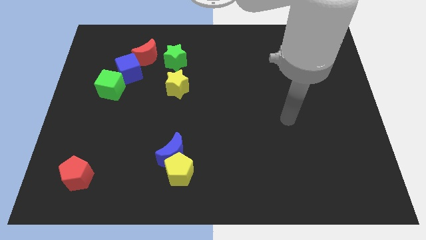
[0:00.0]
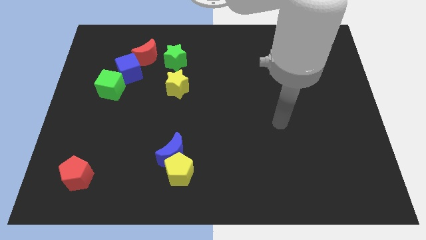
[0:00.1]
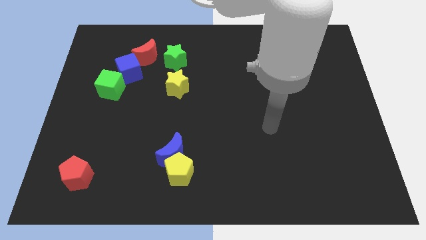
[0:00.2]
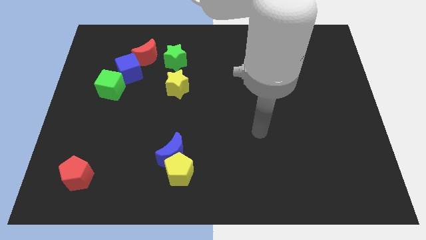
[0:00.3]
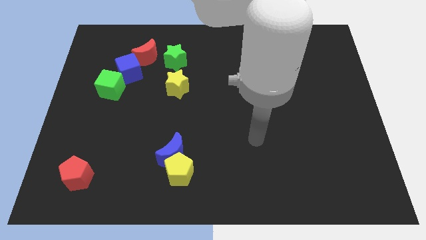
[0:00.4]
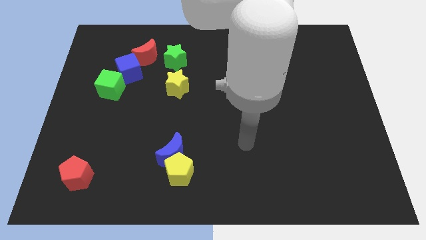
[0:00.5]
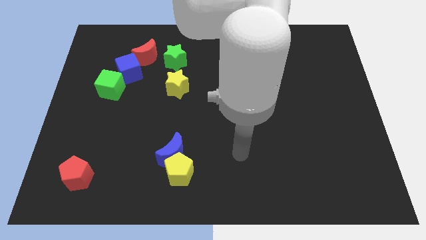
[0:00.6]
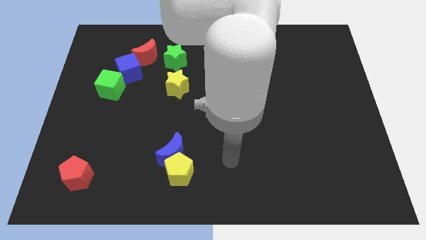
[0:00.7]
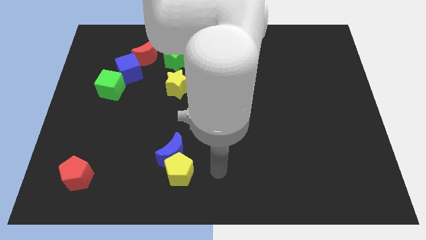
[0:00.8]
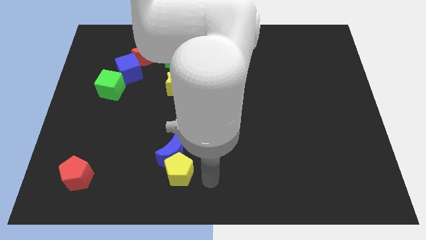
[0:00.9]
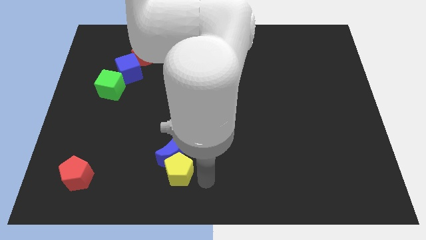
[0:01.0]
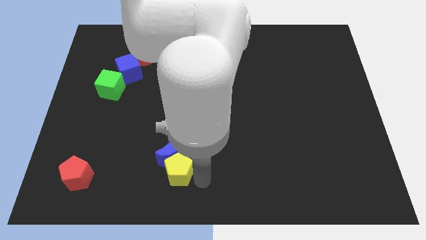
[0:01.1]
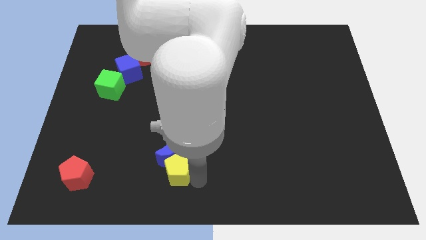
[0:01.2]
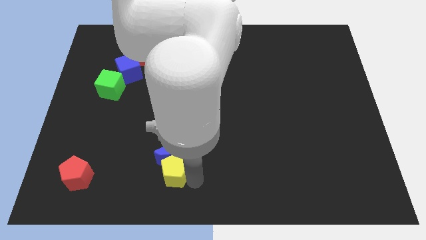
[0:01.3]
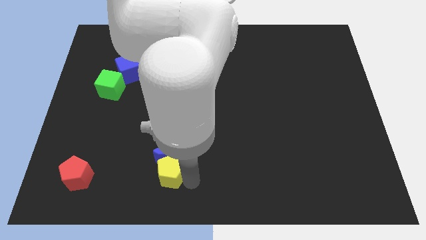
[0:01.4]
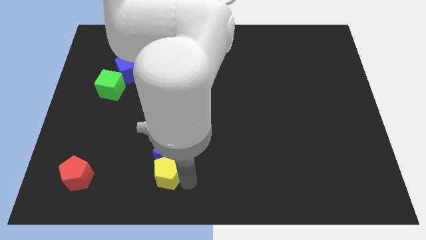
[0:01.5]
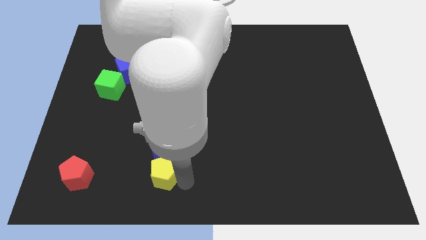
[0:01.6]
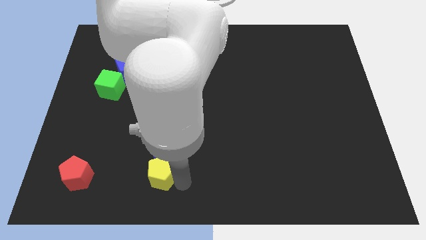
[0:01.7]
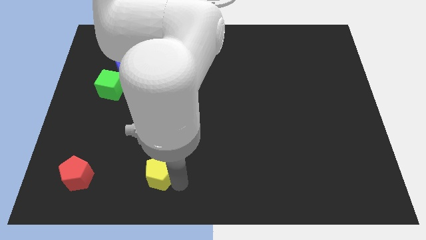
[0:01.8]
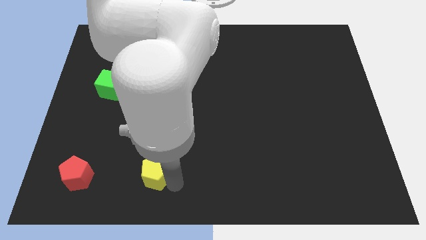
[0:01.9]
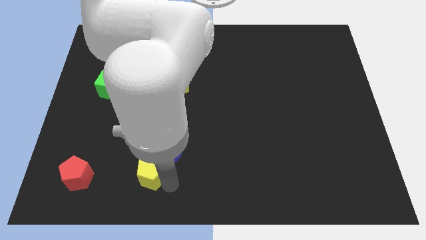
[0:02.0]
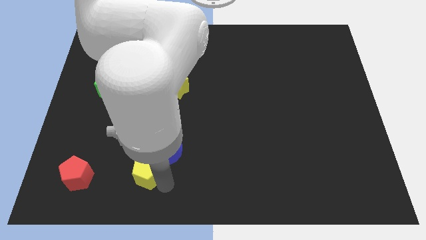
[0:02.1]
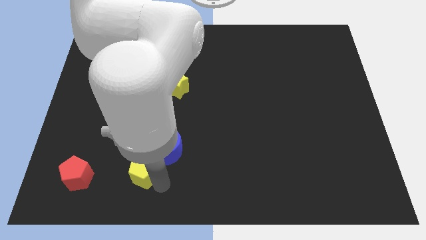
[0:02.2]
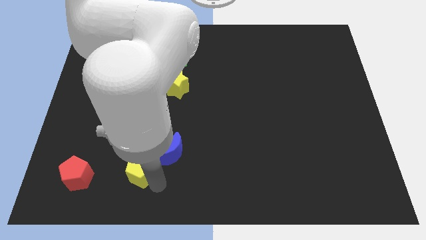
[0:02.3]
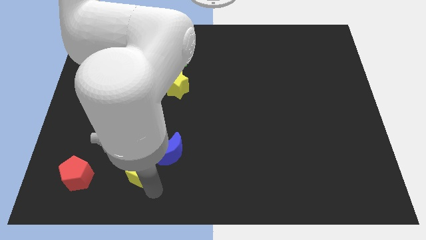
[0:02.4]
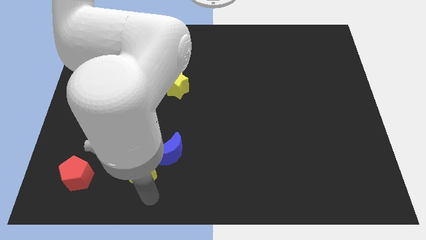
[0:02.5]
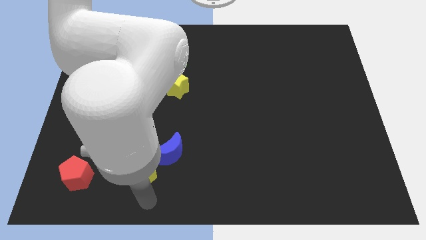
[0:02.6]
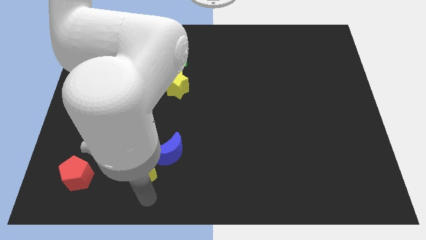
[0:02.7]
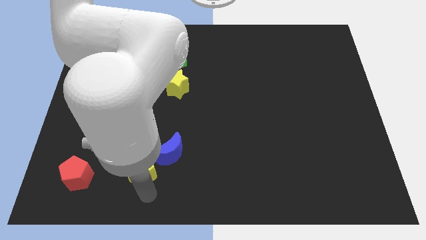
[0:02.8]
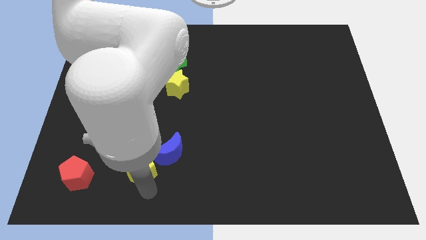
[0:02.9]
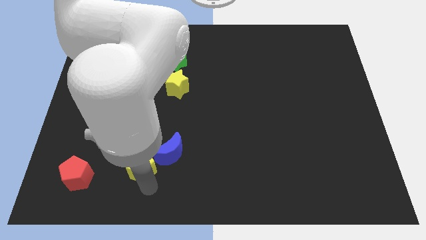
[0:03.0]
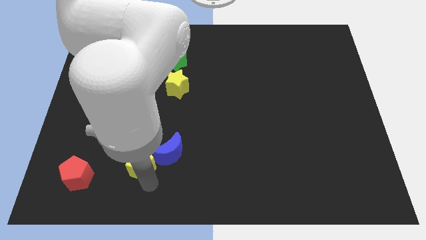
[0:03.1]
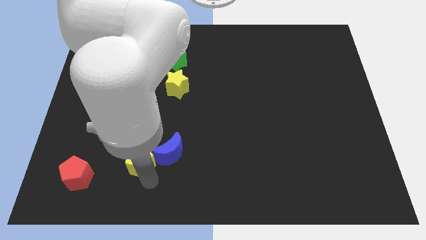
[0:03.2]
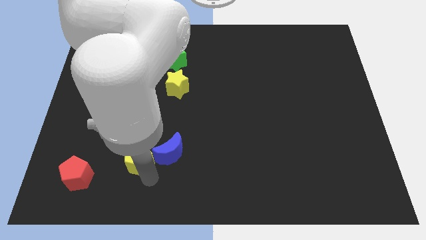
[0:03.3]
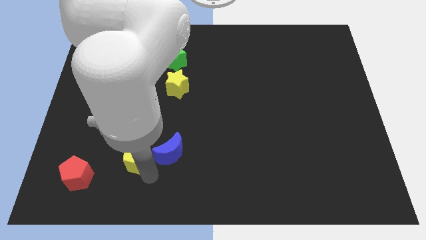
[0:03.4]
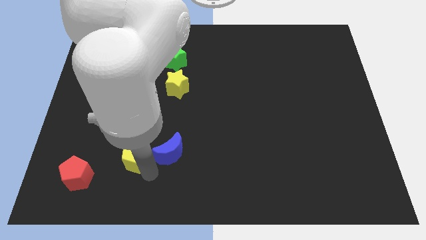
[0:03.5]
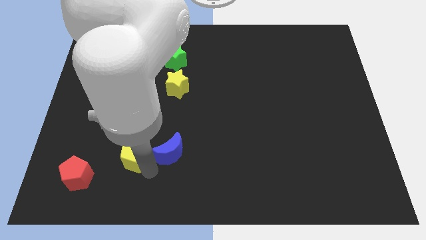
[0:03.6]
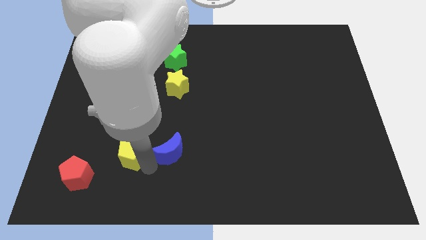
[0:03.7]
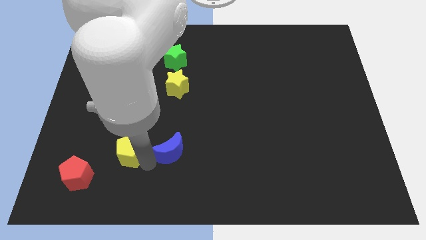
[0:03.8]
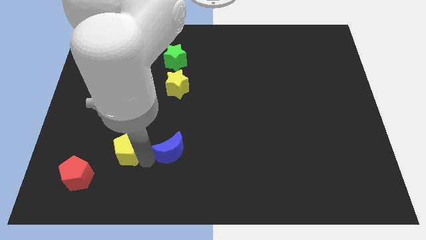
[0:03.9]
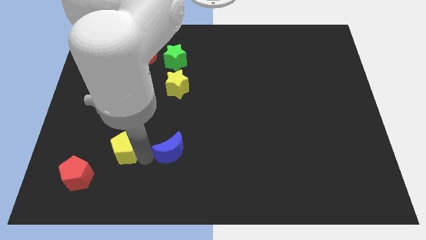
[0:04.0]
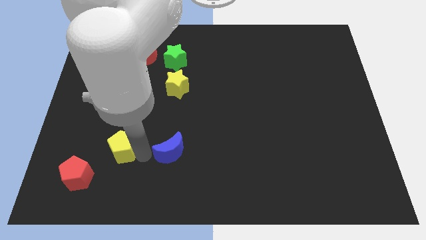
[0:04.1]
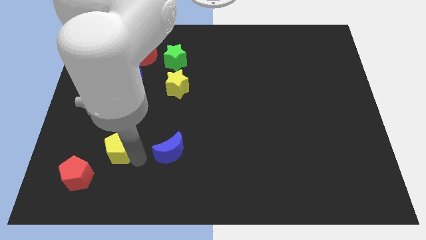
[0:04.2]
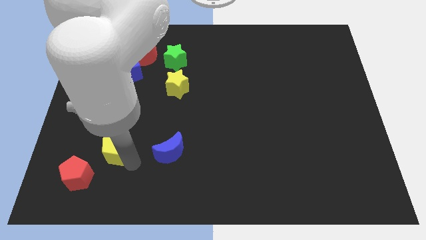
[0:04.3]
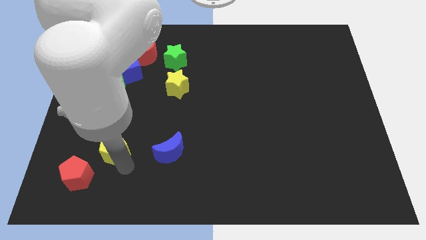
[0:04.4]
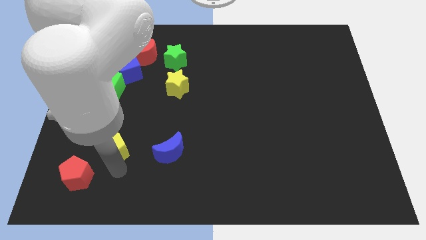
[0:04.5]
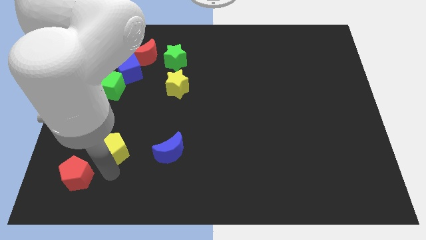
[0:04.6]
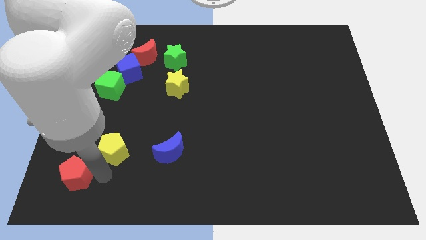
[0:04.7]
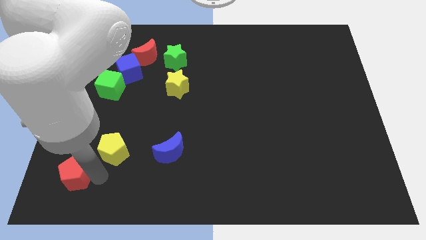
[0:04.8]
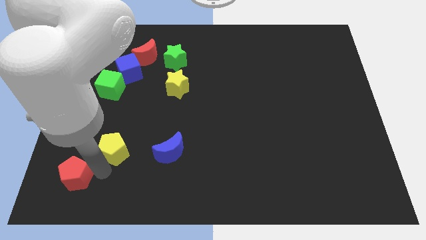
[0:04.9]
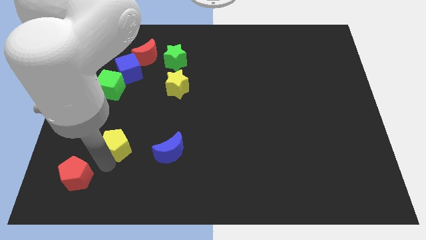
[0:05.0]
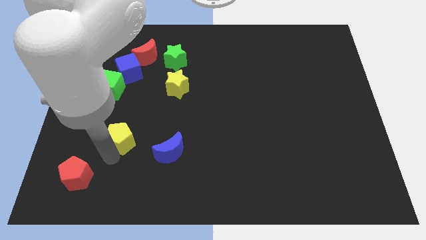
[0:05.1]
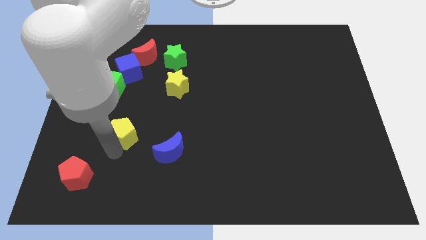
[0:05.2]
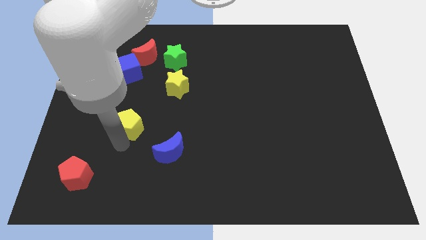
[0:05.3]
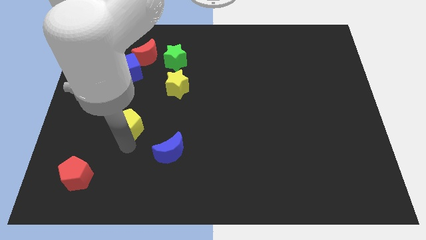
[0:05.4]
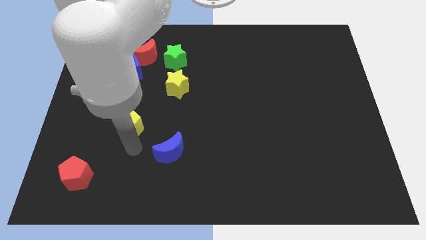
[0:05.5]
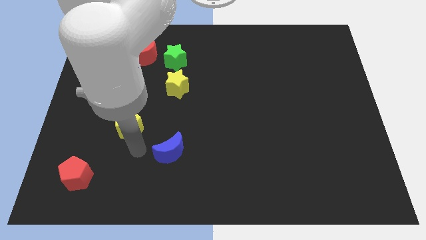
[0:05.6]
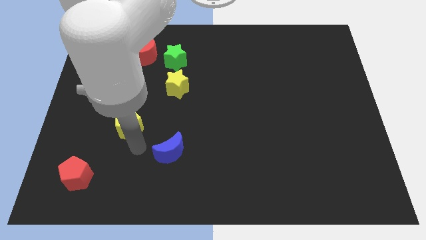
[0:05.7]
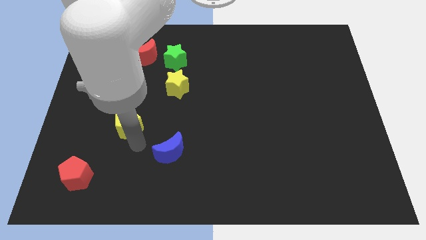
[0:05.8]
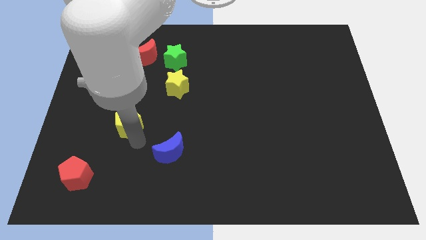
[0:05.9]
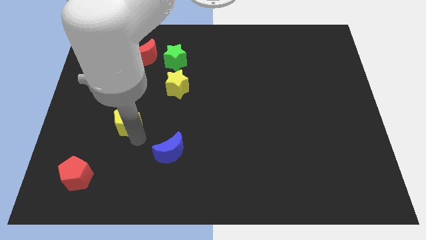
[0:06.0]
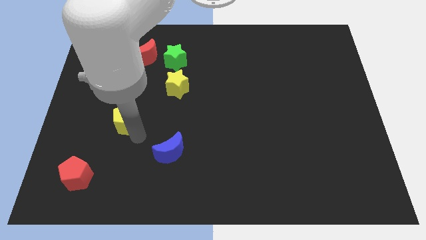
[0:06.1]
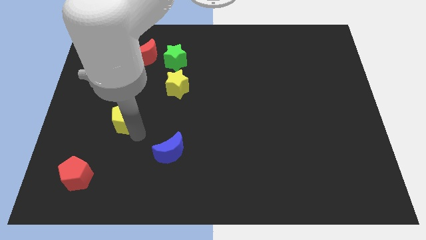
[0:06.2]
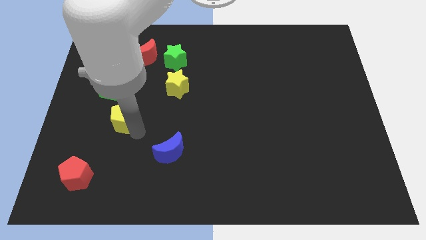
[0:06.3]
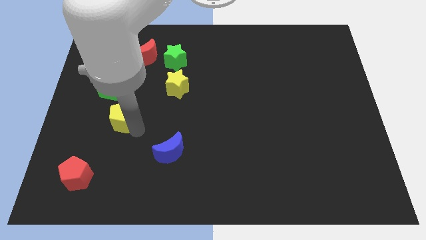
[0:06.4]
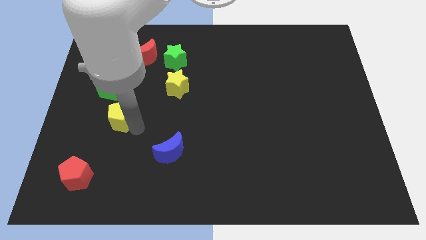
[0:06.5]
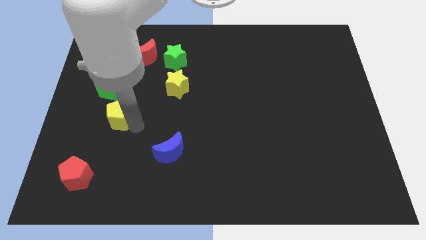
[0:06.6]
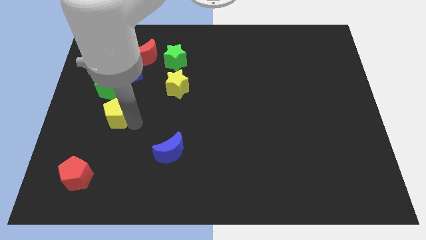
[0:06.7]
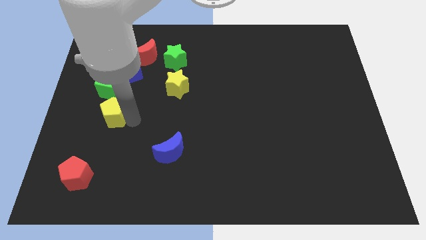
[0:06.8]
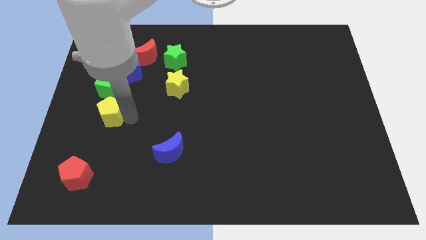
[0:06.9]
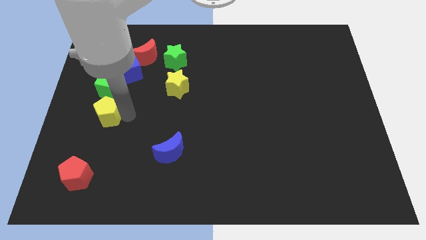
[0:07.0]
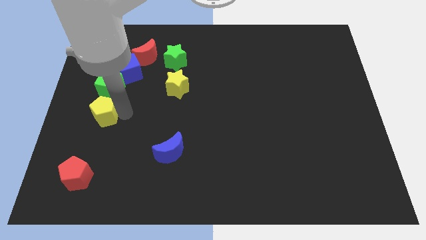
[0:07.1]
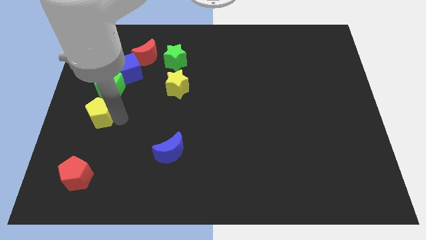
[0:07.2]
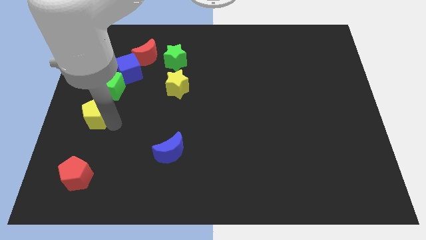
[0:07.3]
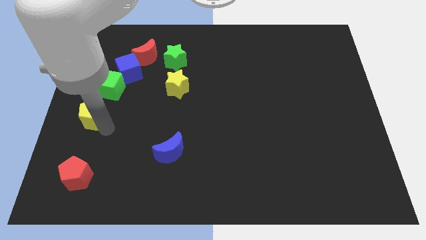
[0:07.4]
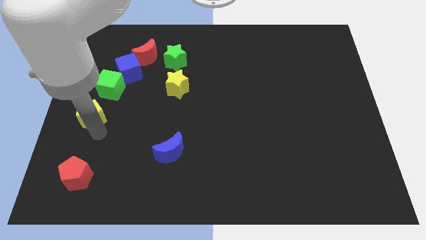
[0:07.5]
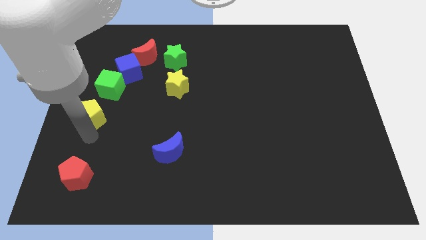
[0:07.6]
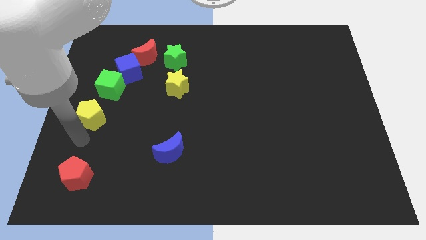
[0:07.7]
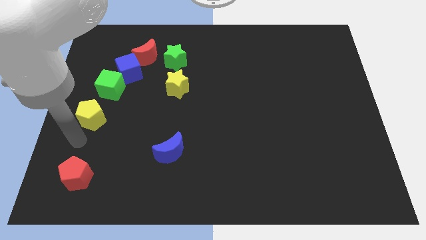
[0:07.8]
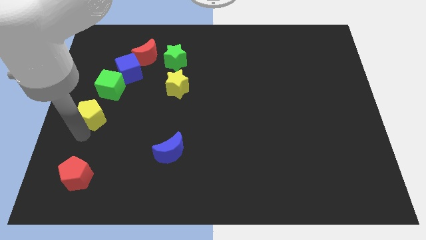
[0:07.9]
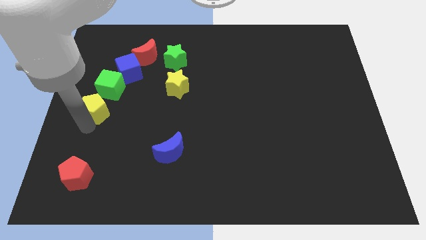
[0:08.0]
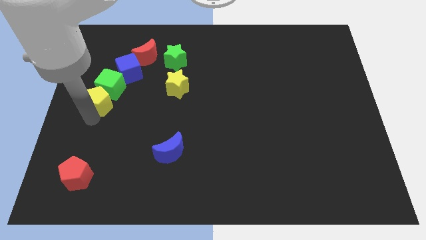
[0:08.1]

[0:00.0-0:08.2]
push the yellow pentagon close to the green cube
